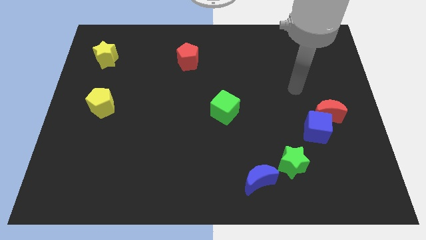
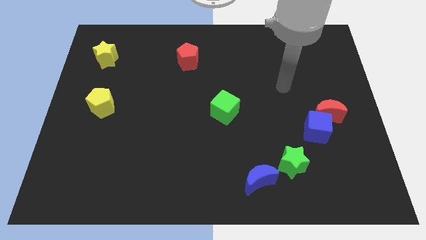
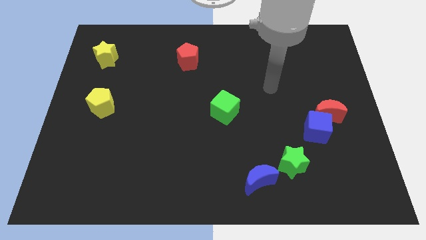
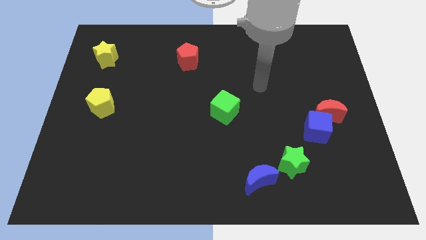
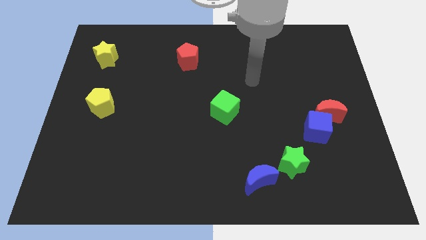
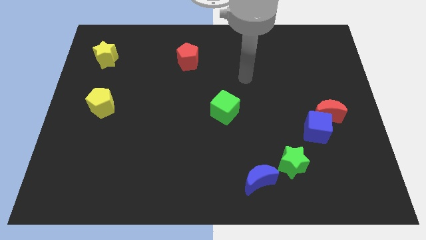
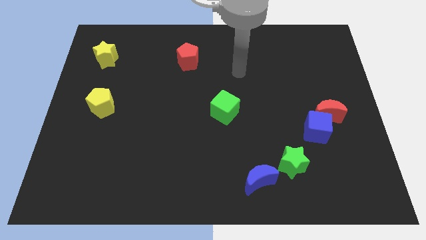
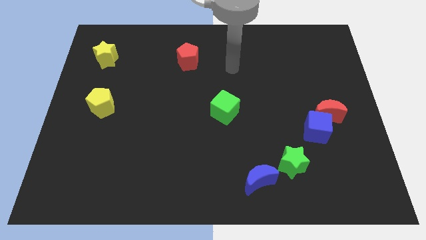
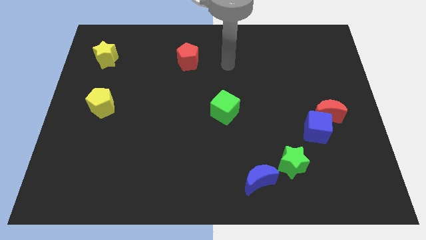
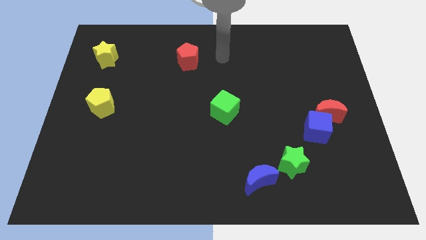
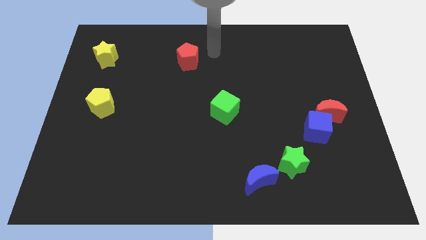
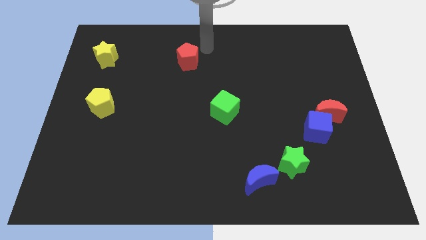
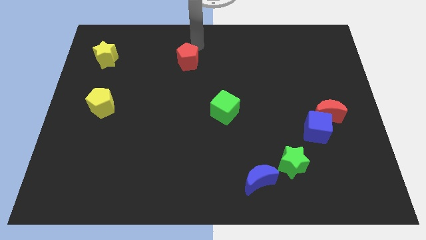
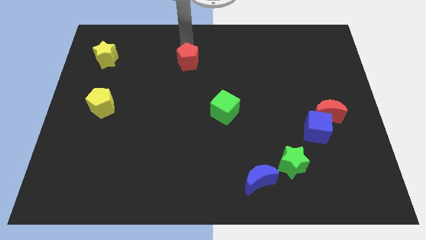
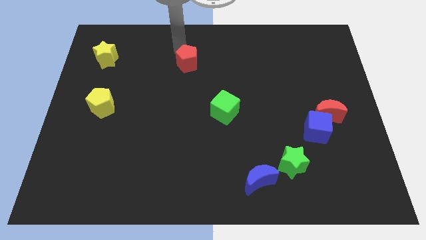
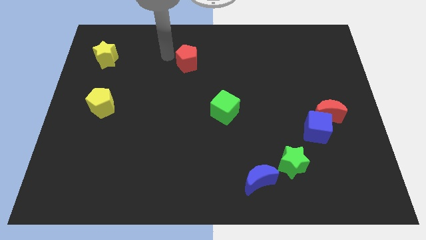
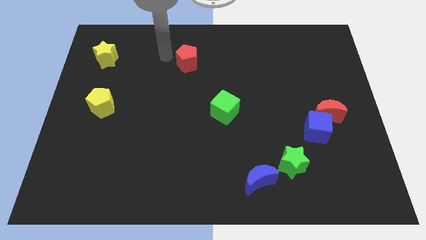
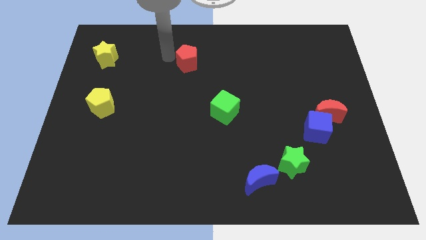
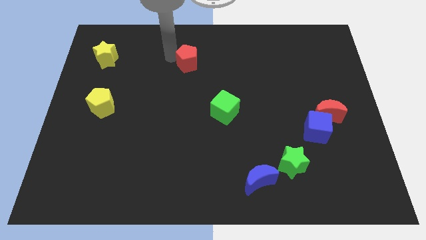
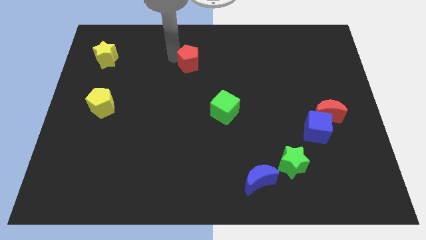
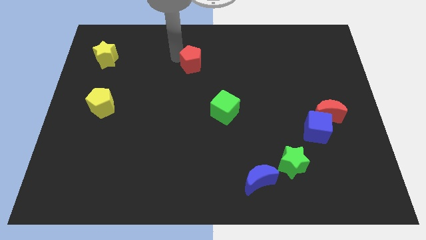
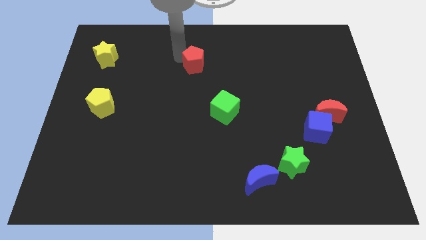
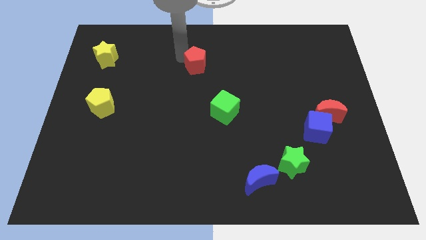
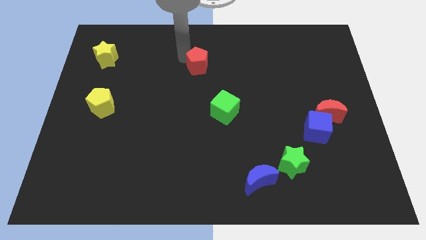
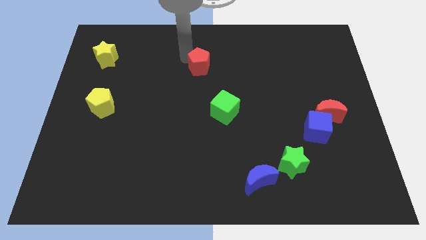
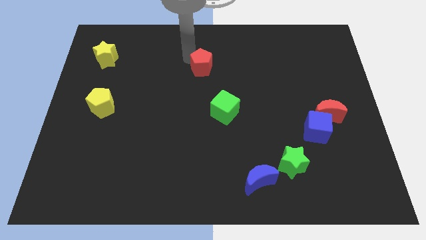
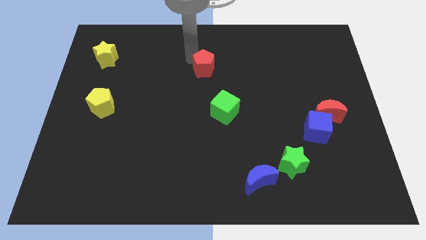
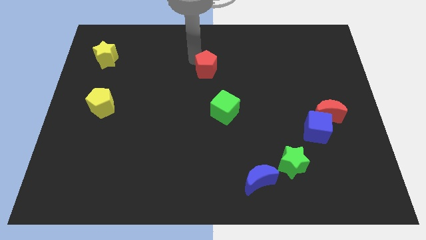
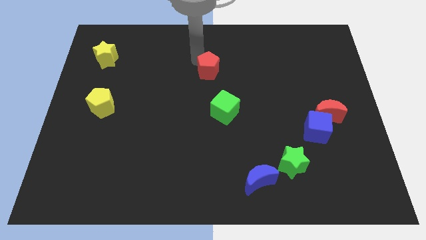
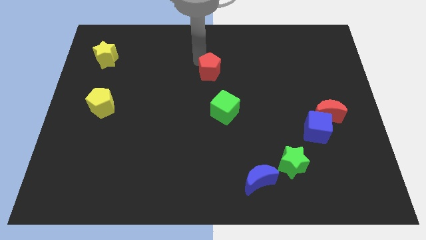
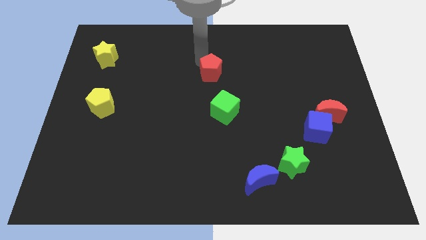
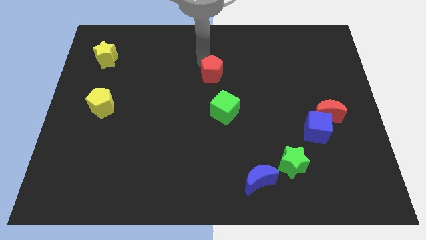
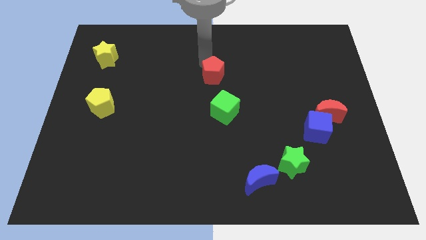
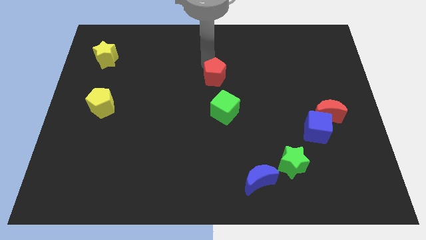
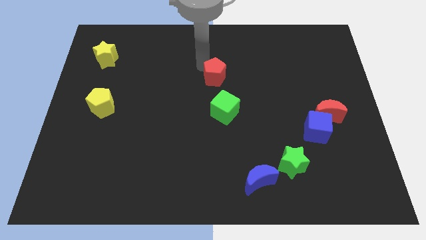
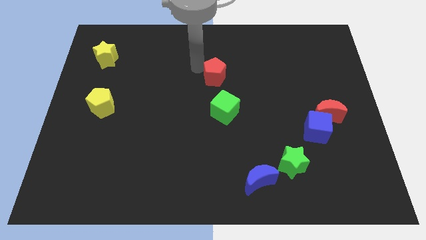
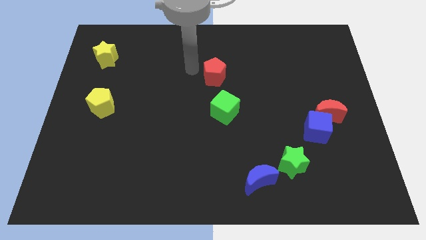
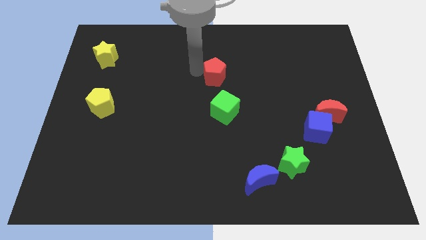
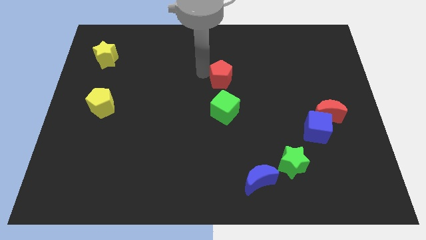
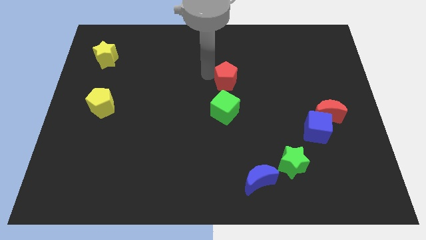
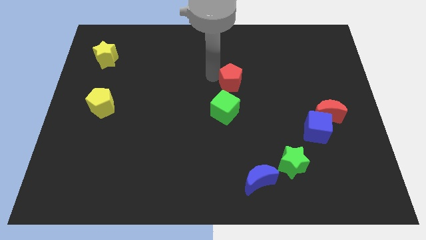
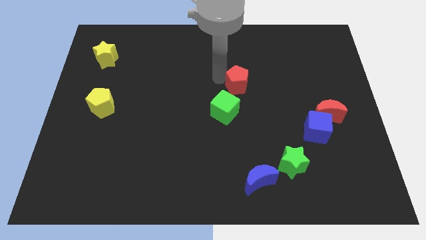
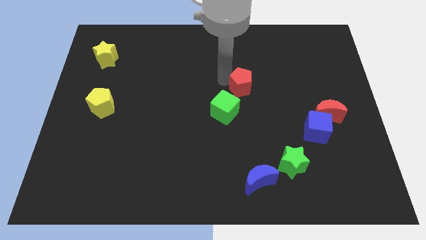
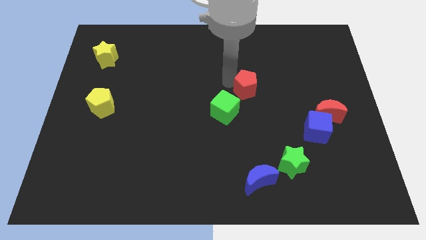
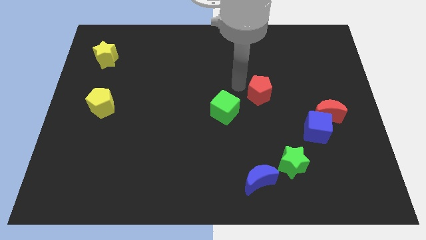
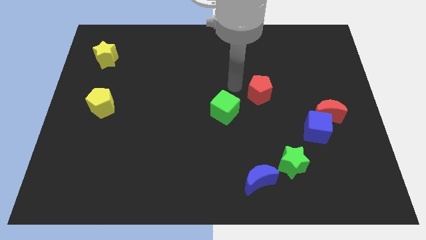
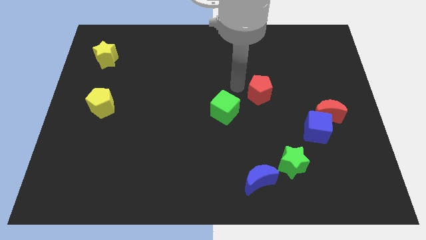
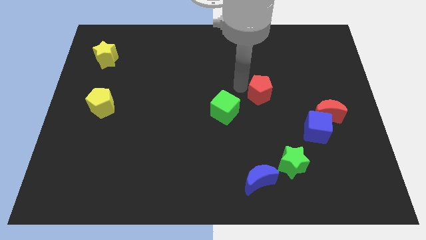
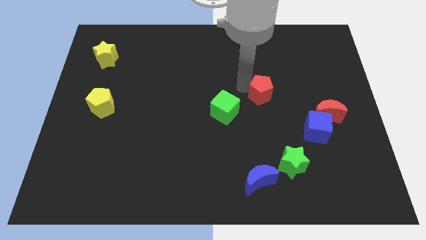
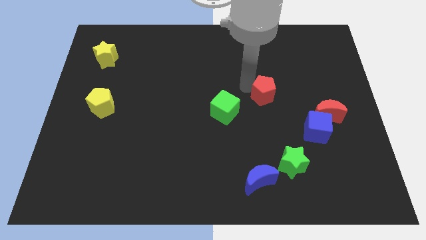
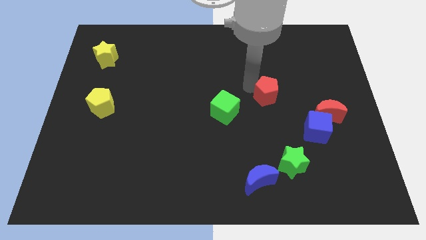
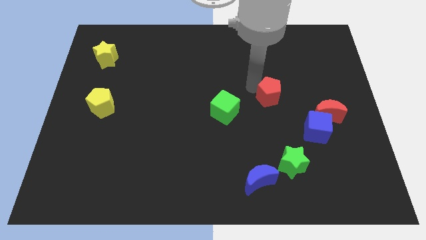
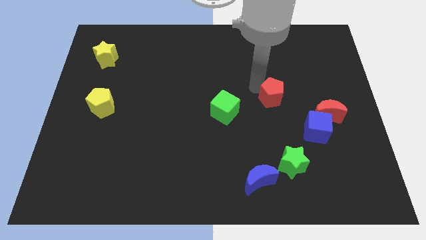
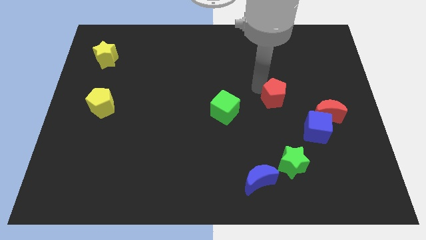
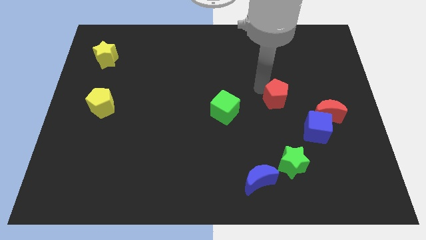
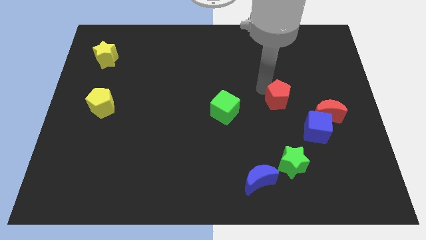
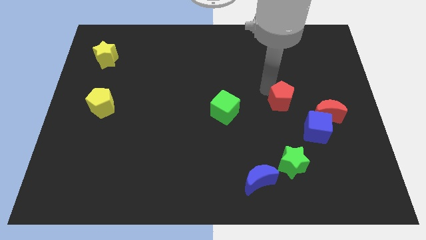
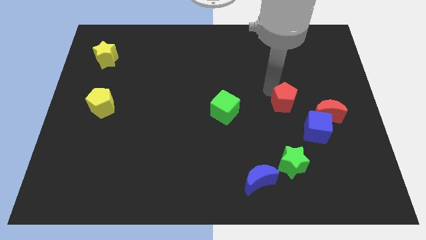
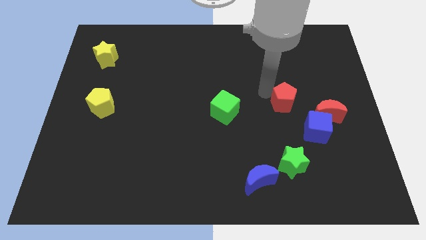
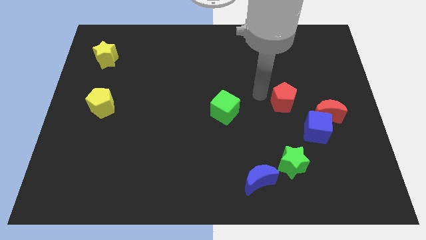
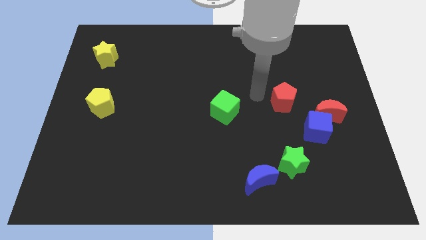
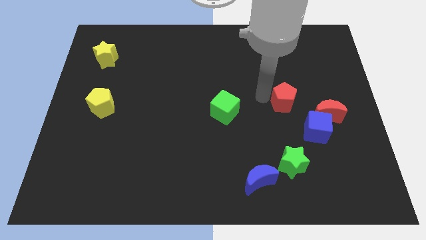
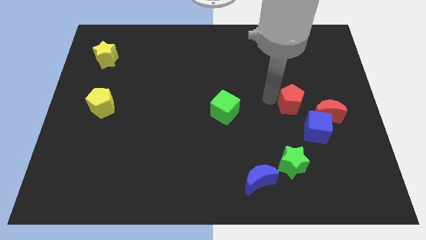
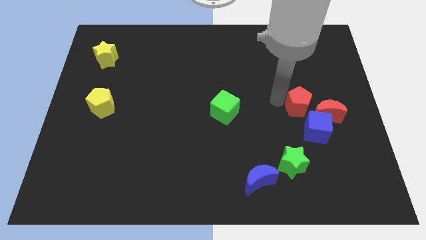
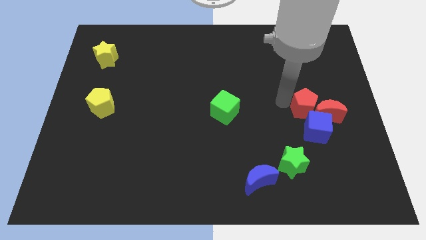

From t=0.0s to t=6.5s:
move the red pentagon close to the red moon

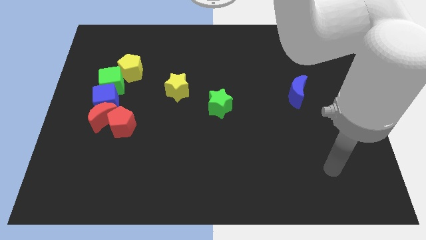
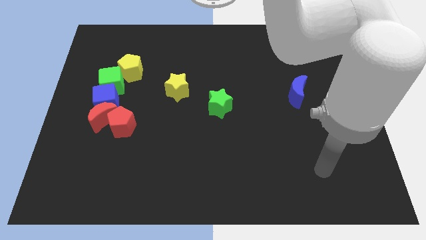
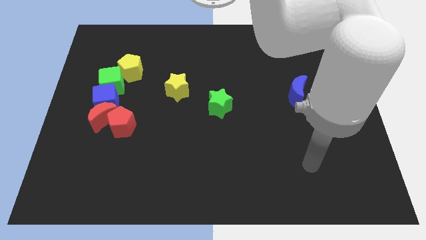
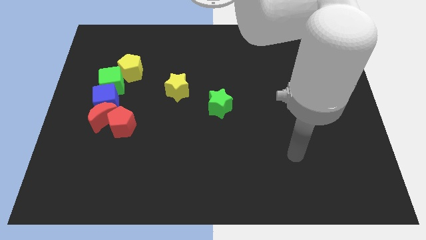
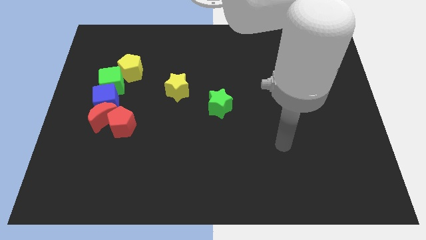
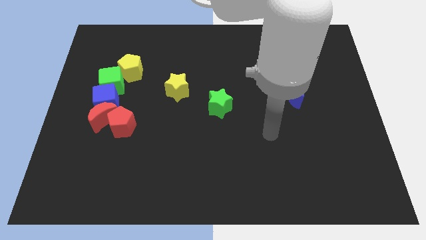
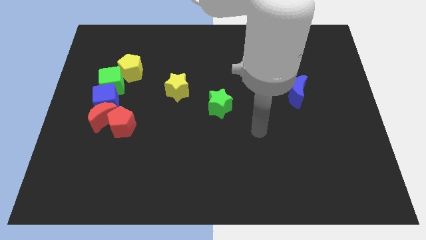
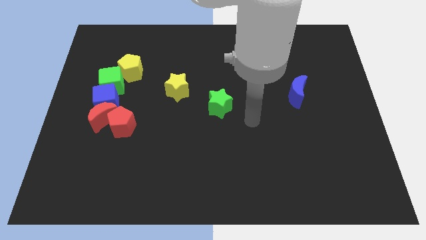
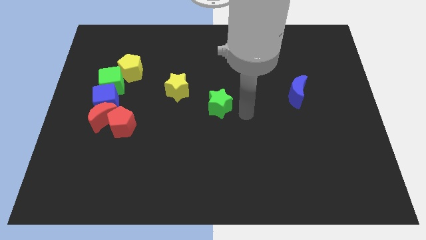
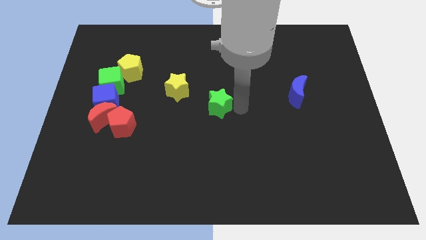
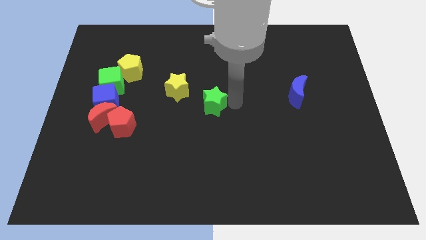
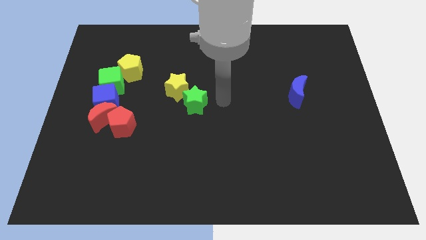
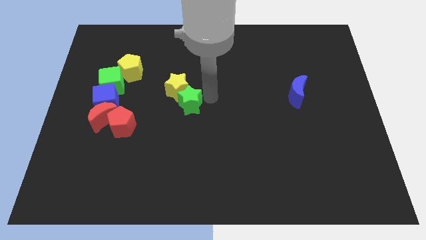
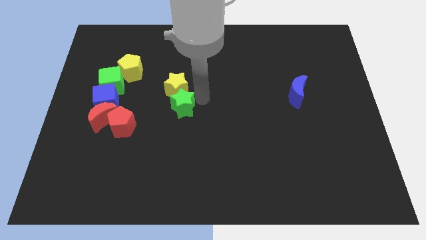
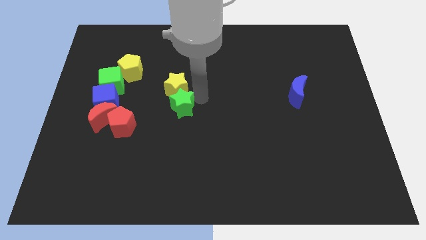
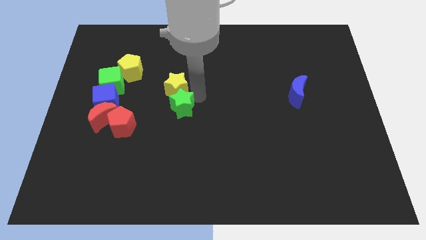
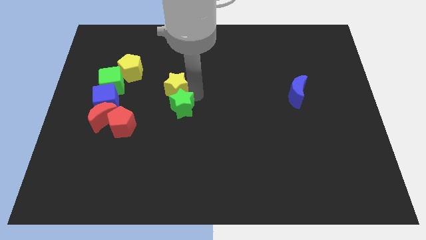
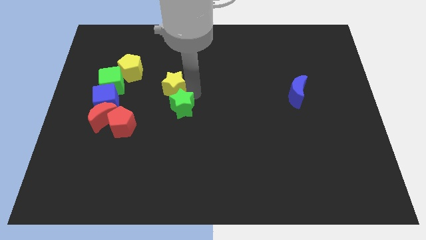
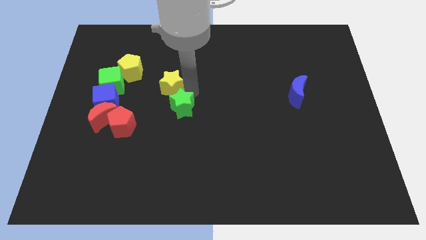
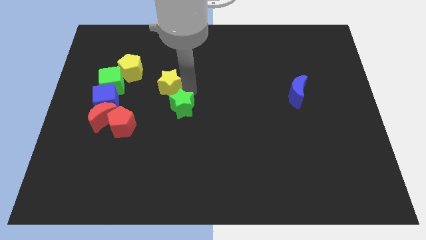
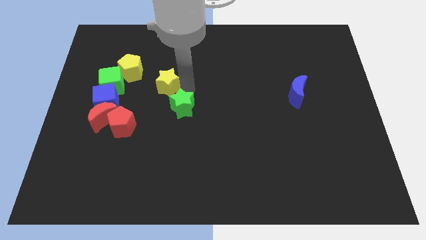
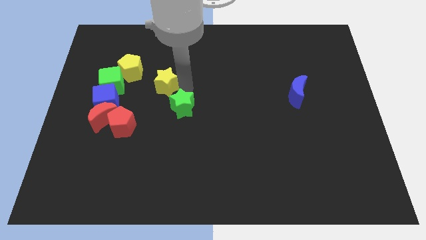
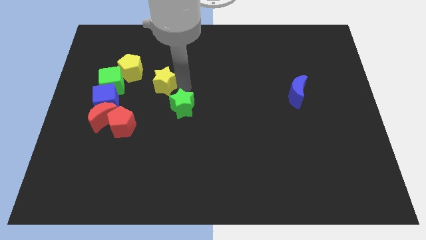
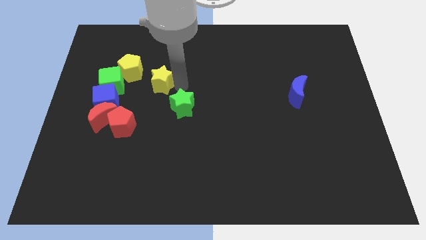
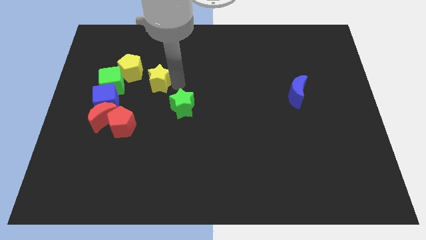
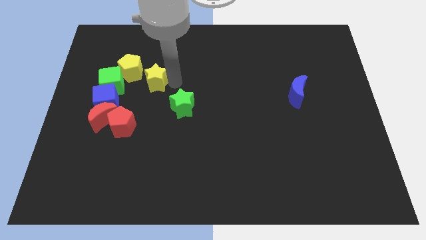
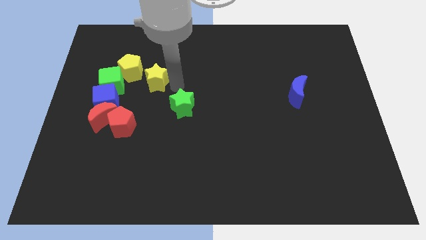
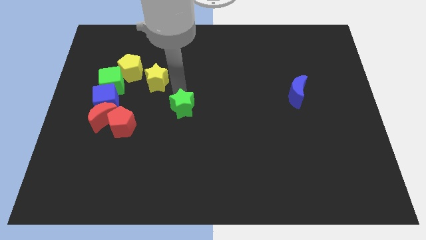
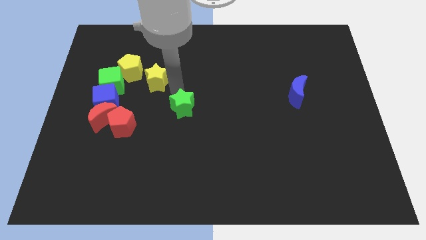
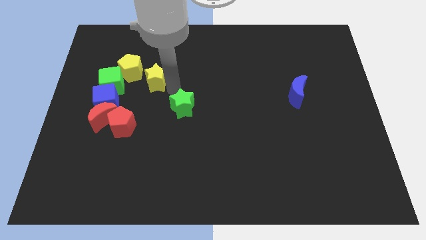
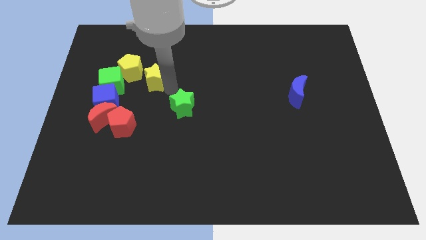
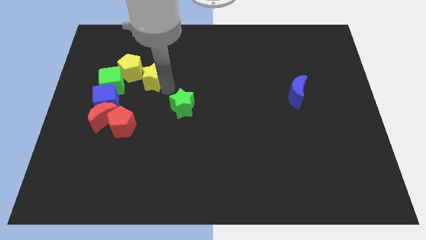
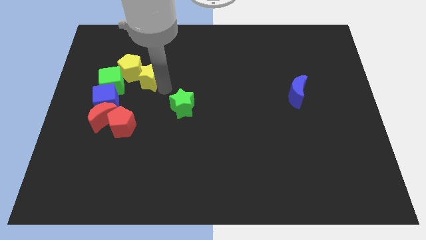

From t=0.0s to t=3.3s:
push the yellow star to the yellow pentagon
